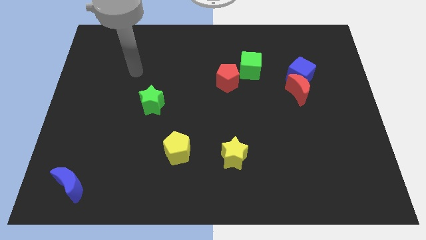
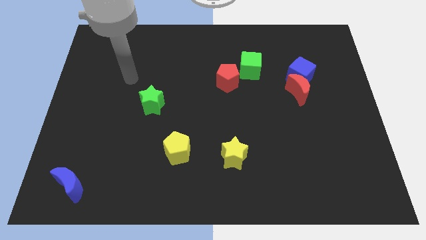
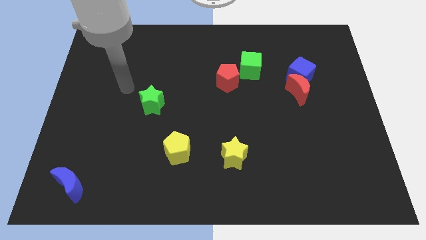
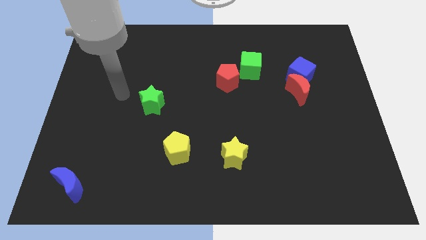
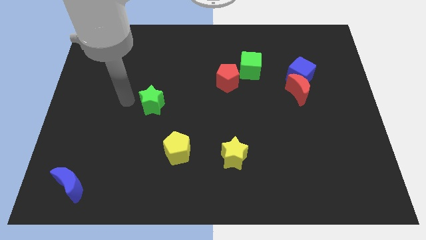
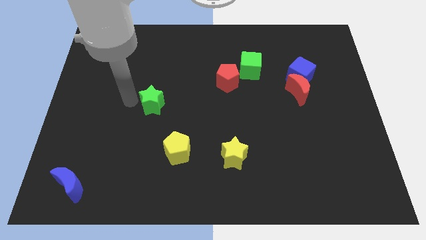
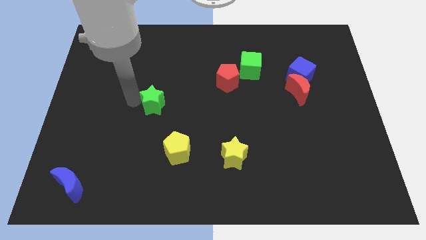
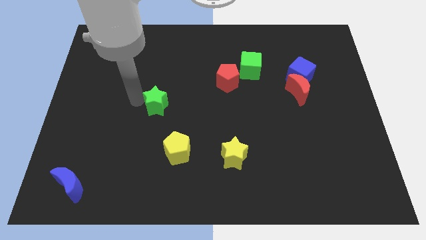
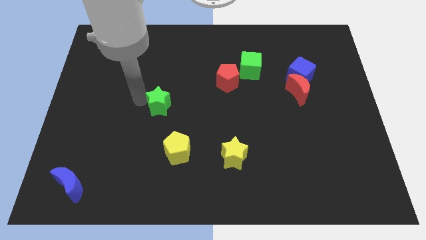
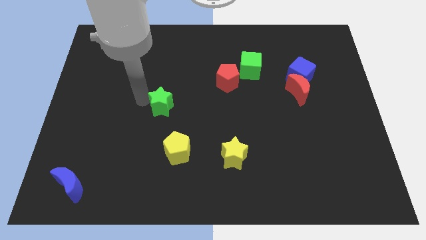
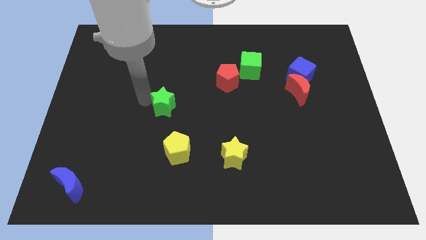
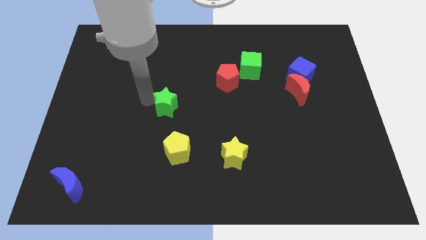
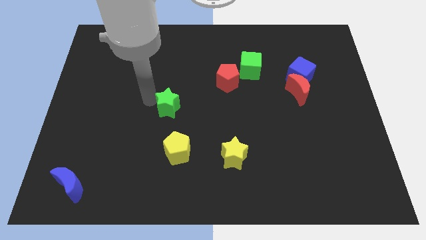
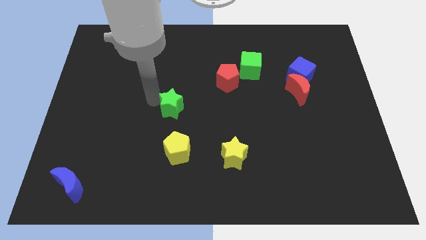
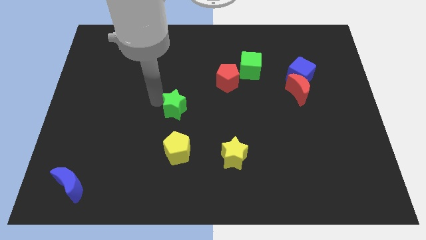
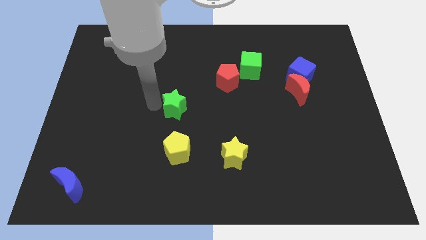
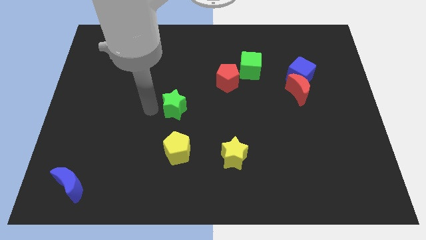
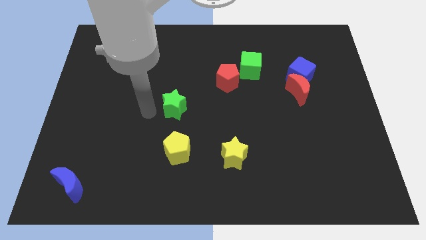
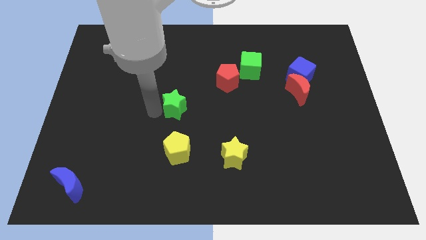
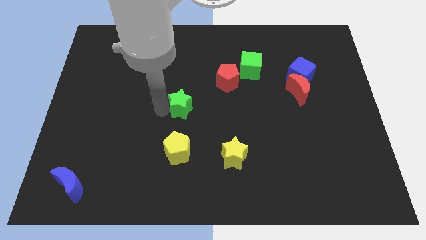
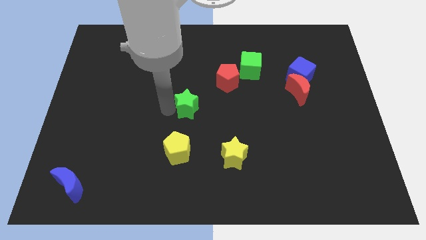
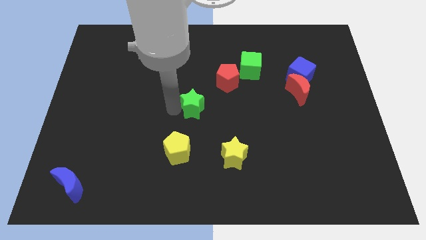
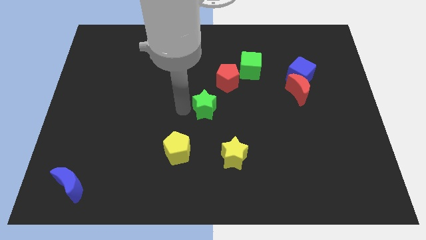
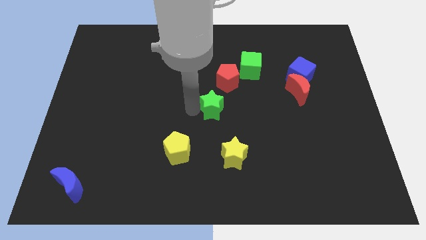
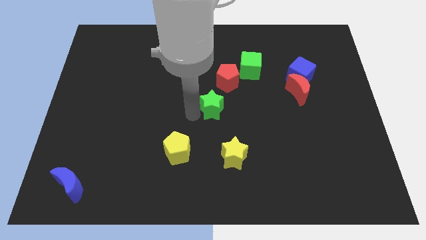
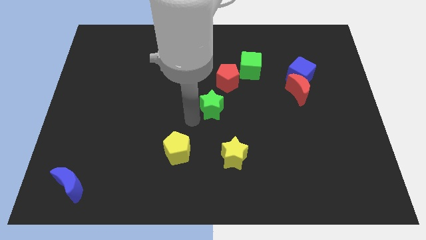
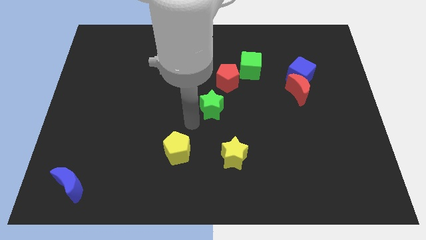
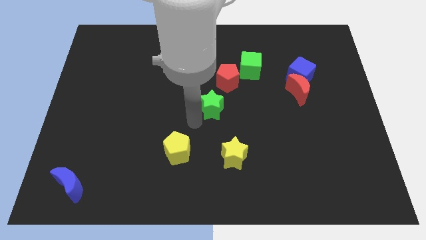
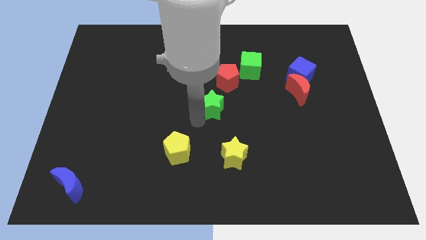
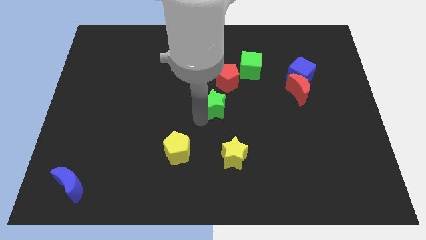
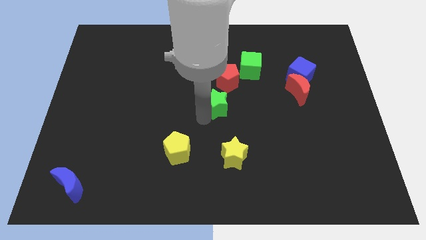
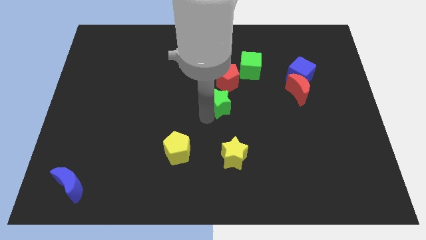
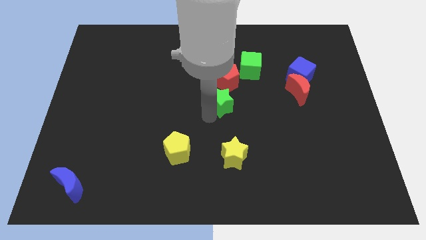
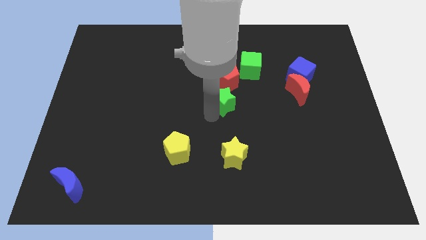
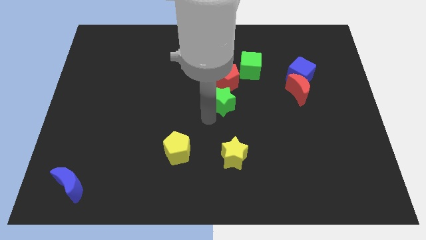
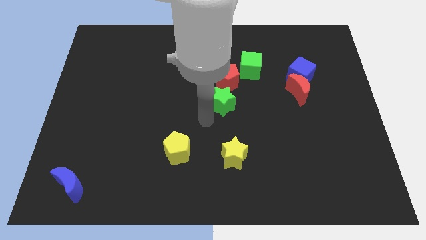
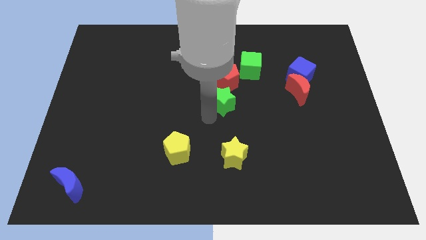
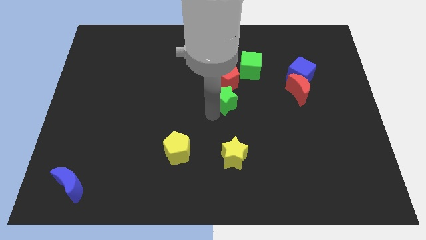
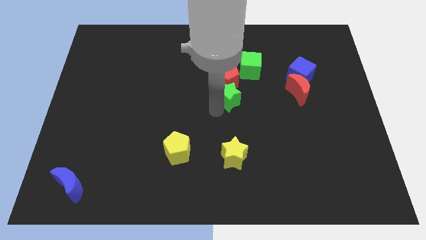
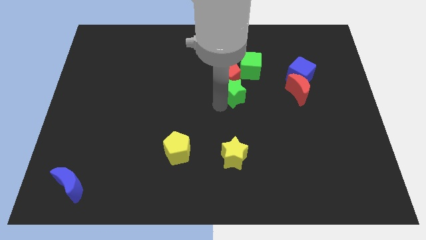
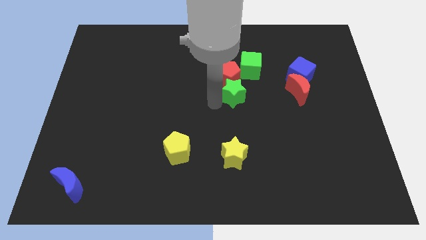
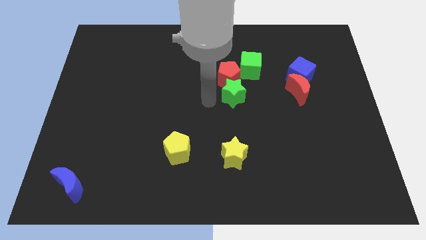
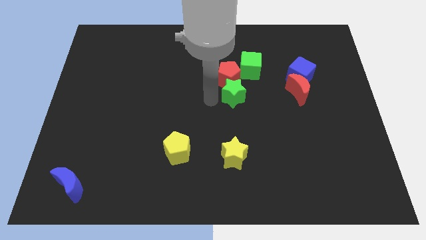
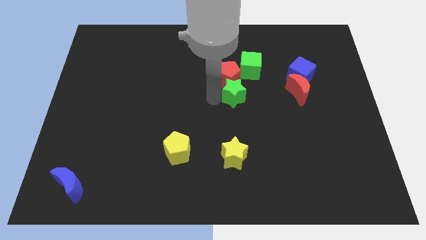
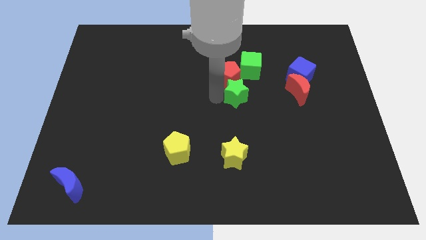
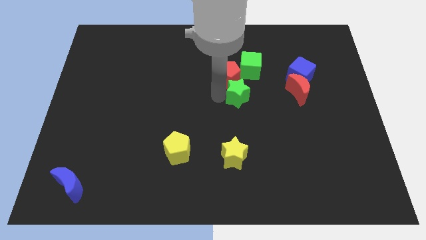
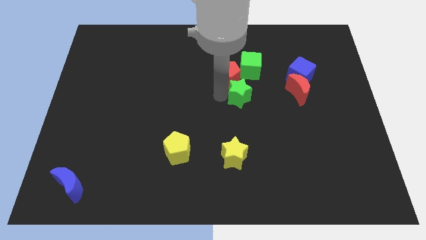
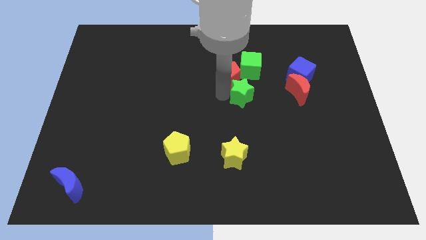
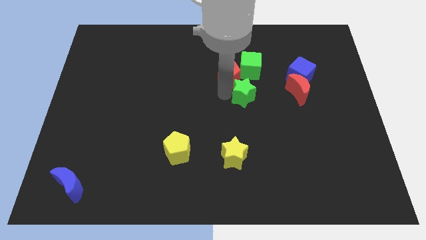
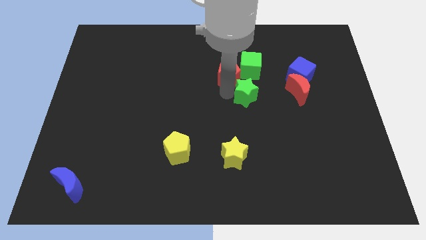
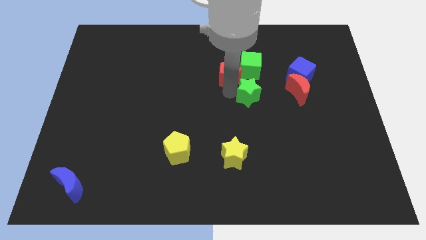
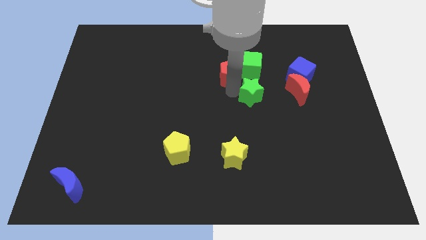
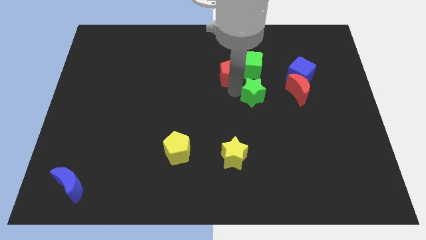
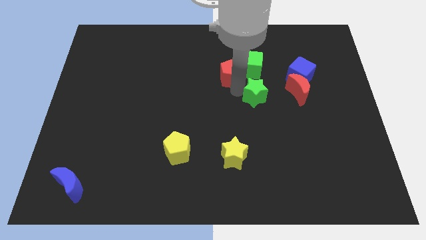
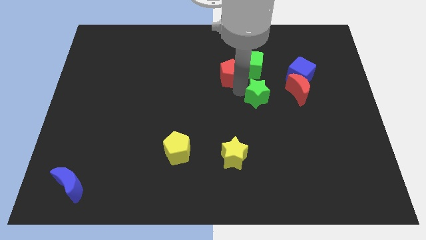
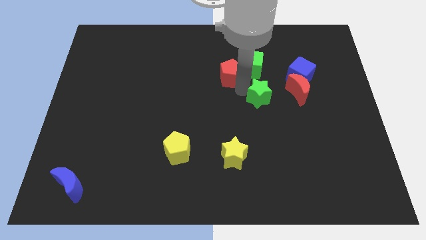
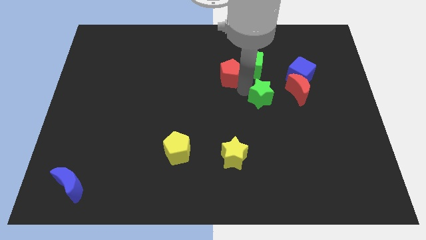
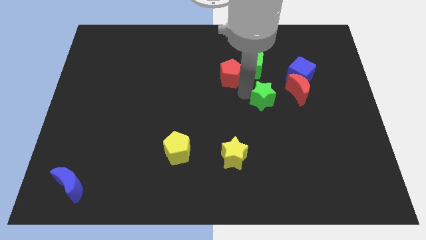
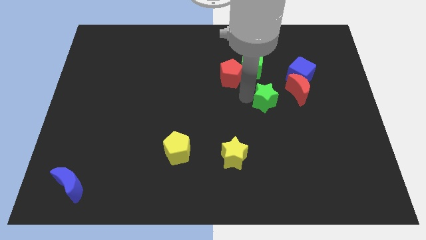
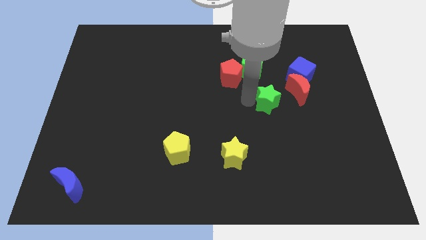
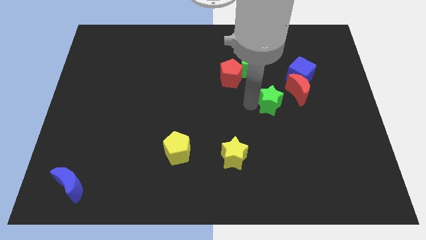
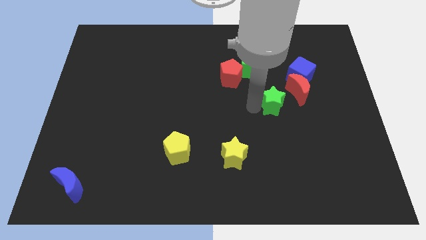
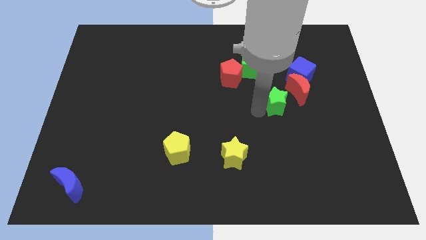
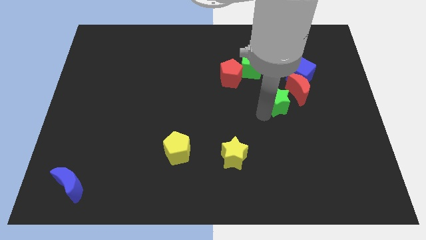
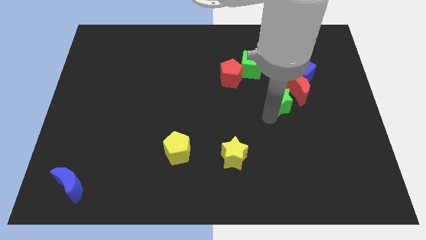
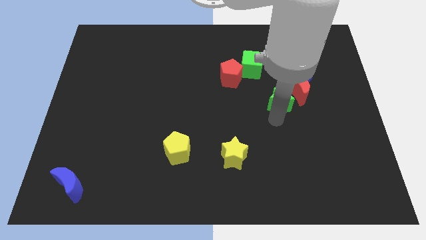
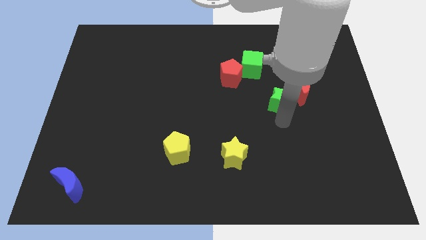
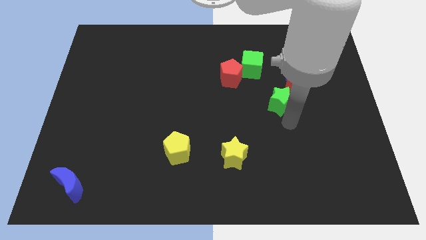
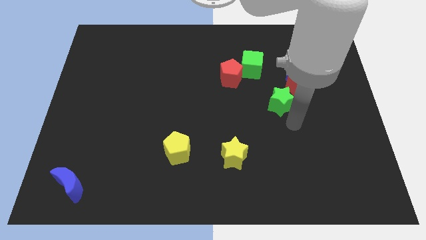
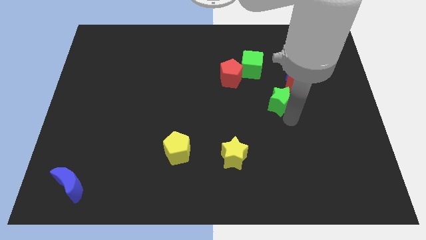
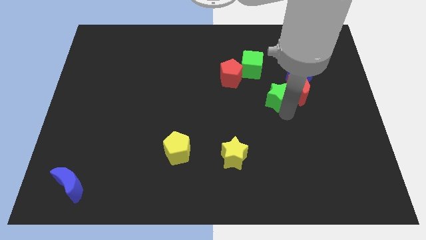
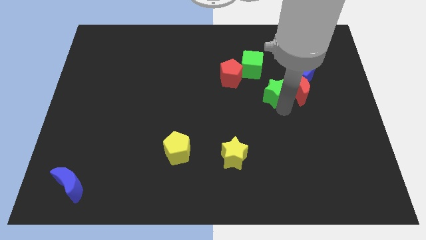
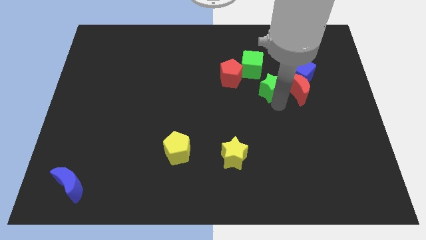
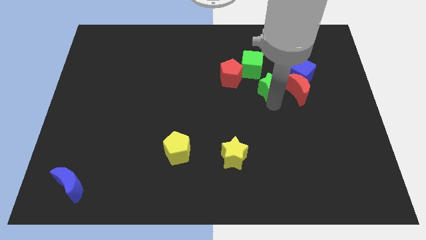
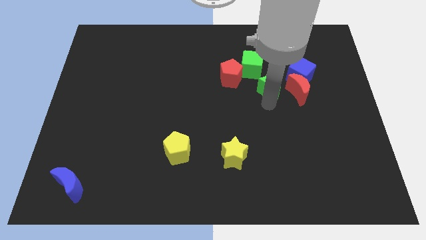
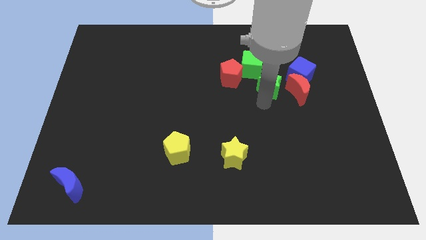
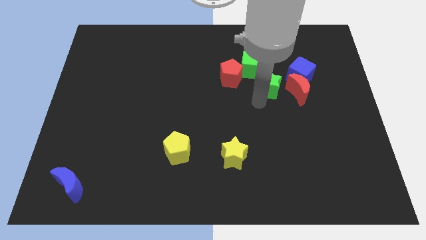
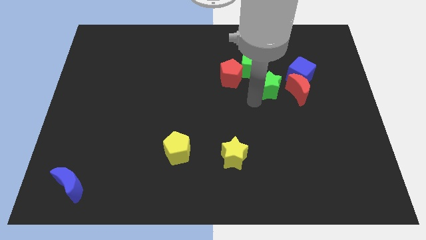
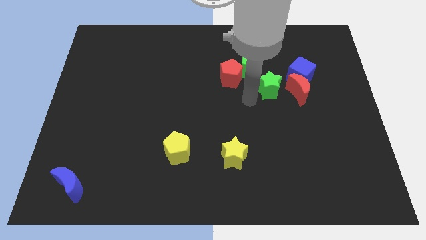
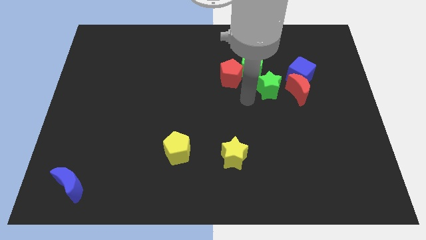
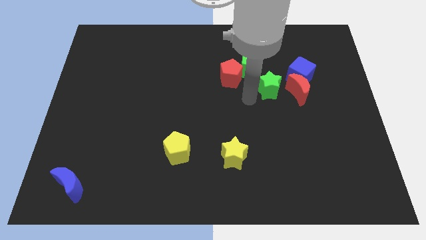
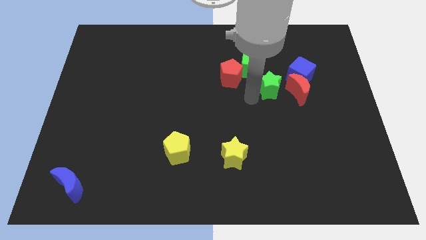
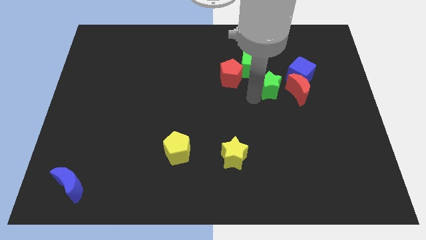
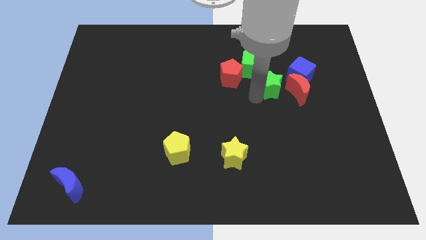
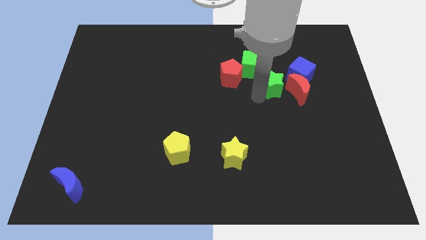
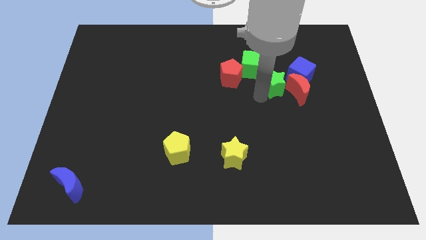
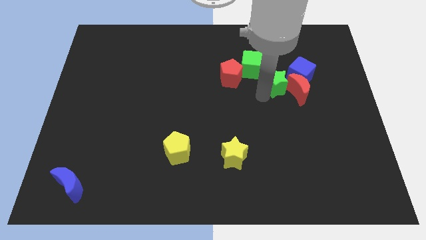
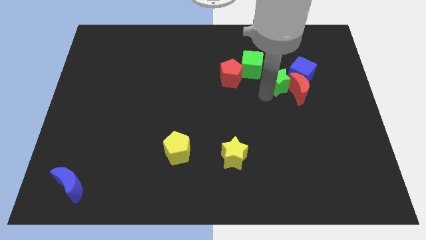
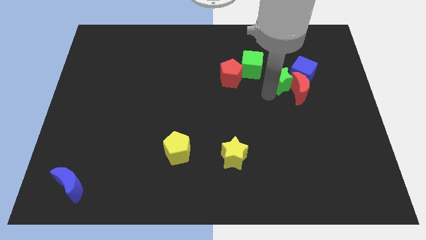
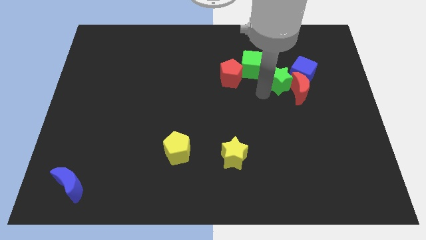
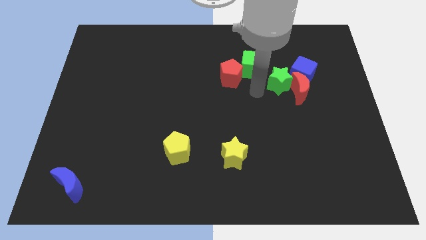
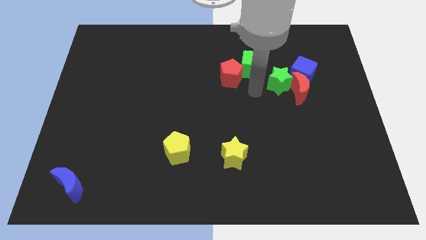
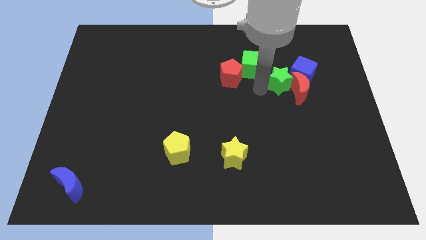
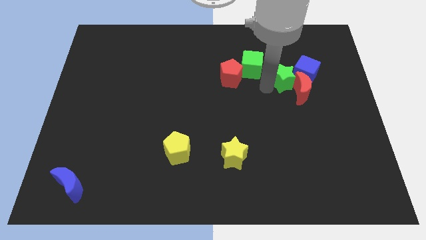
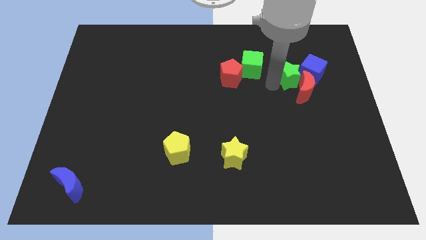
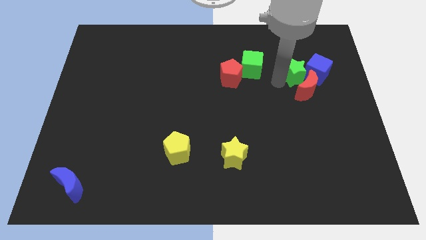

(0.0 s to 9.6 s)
push the green star next to the blue cube
